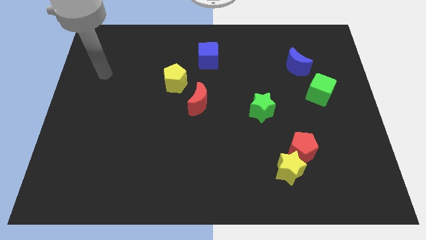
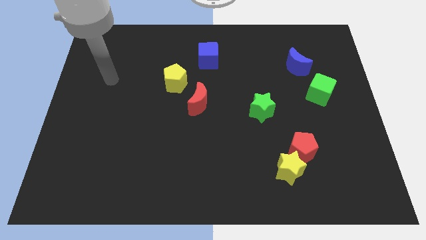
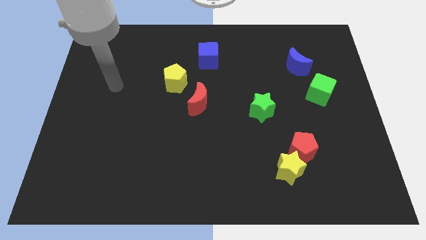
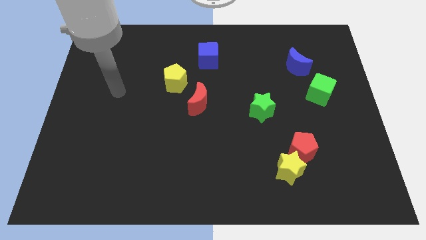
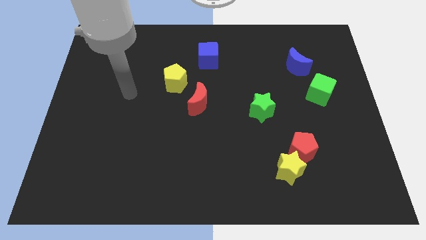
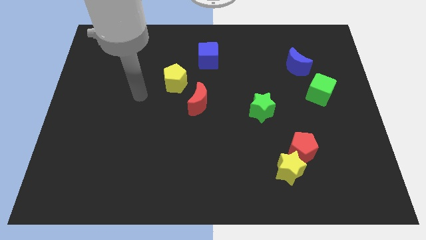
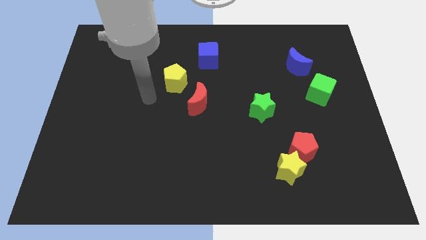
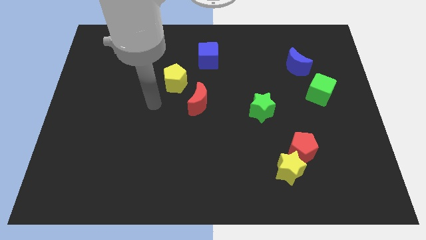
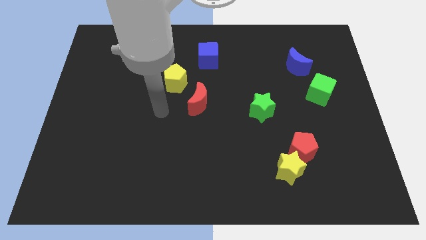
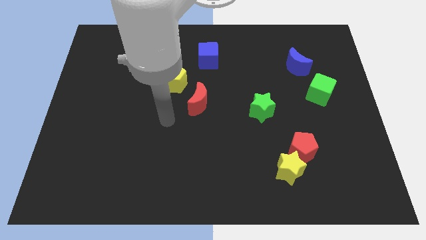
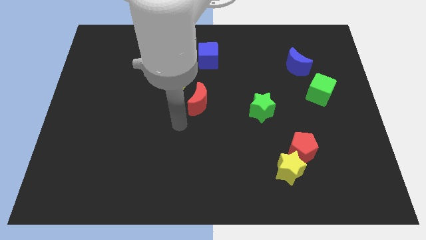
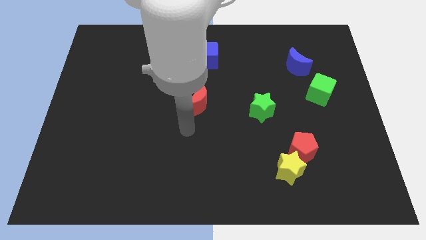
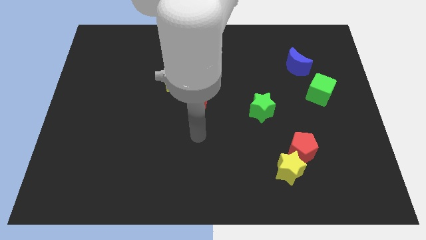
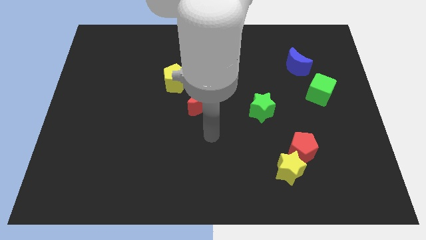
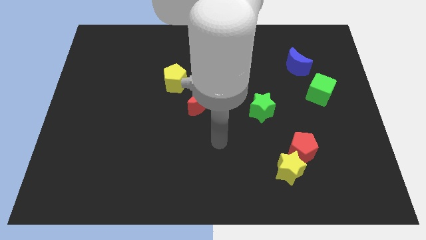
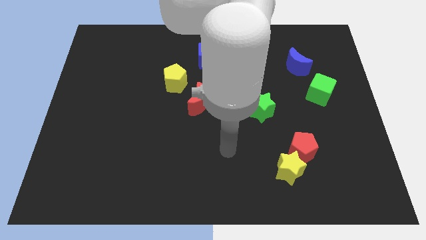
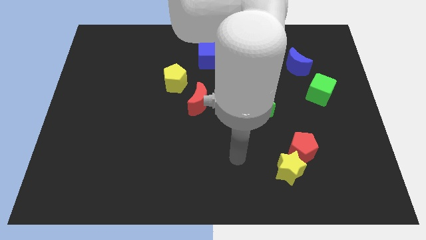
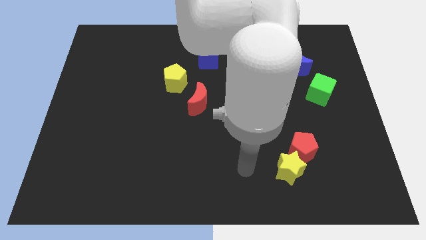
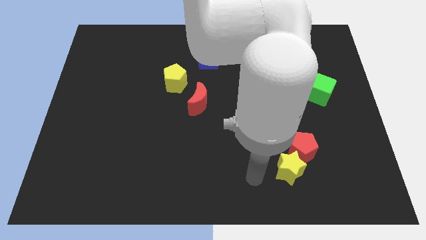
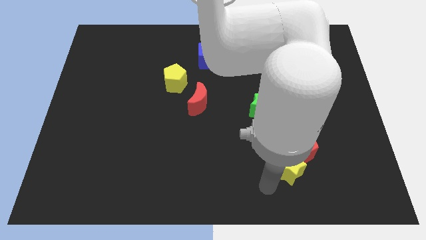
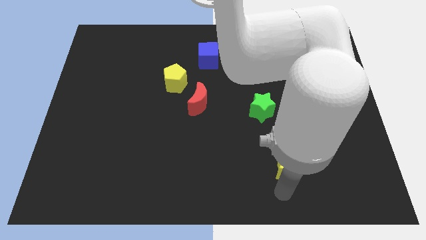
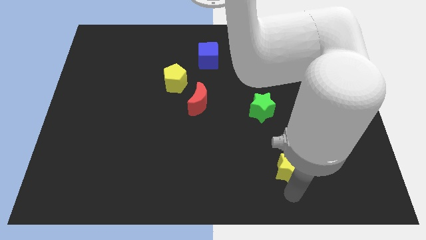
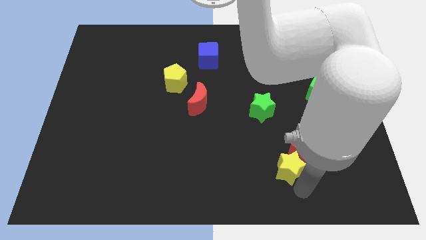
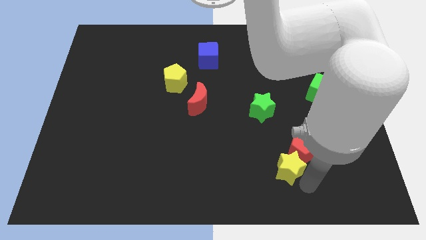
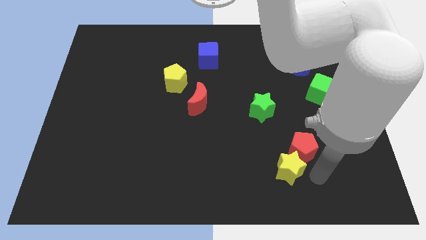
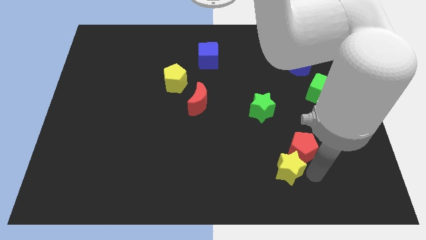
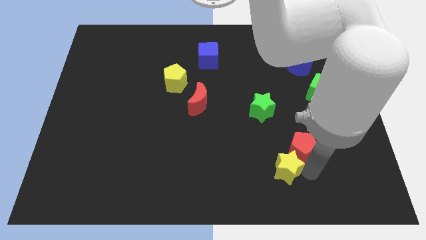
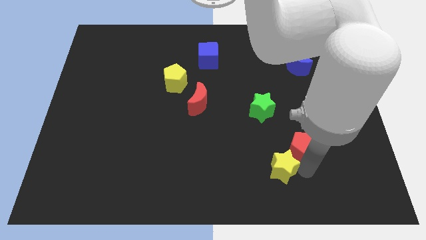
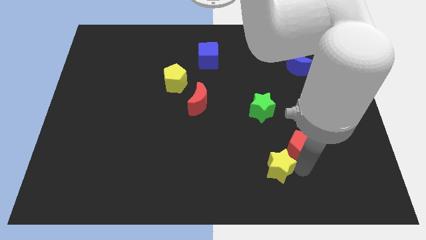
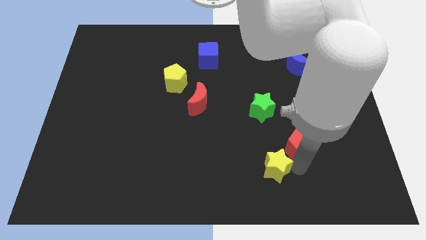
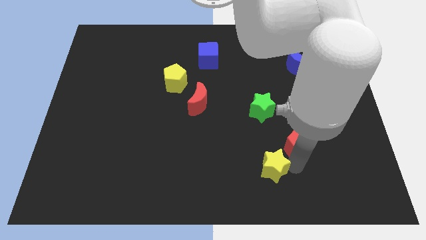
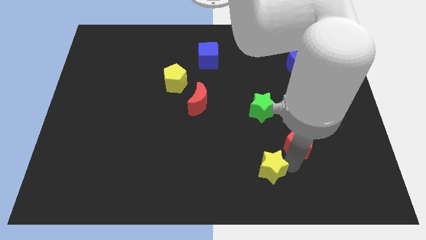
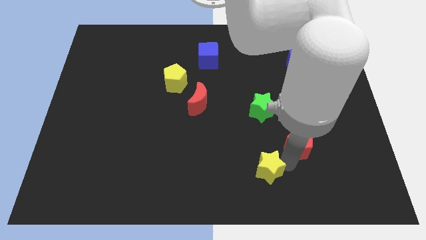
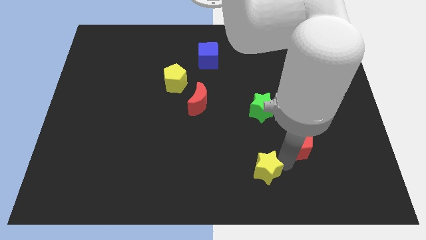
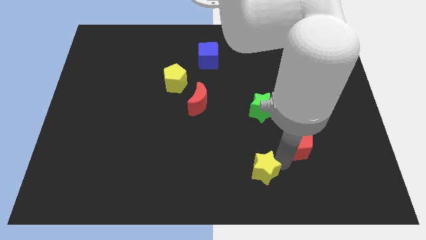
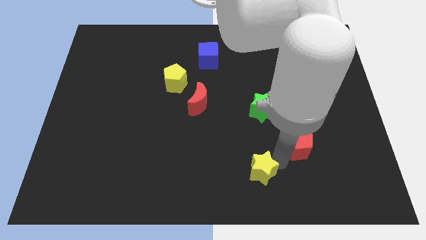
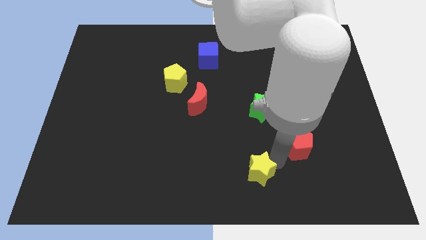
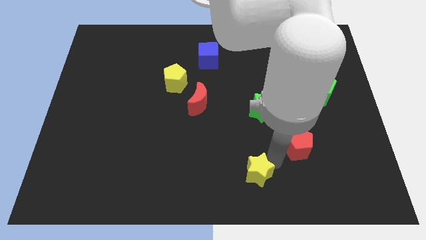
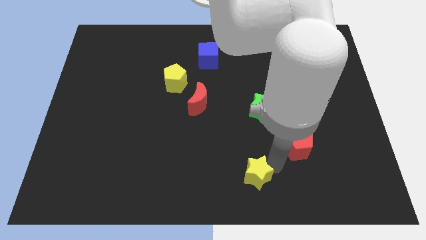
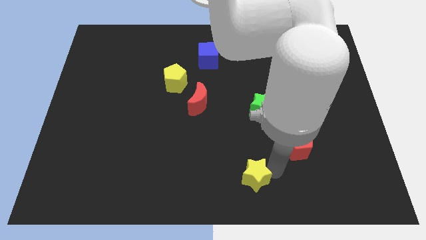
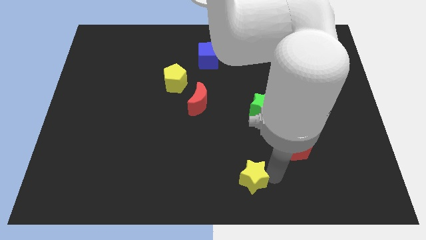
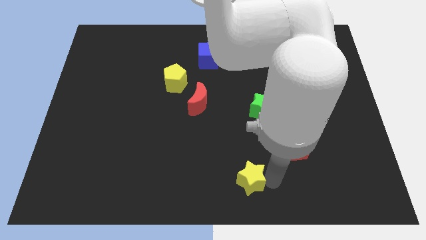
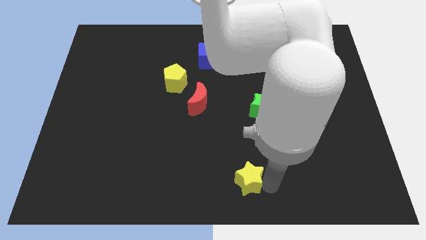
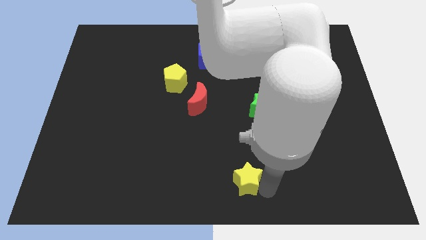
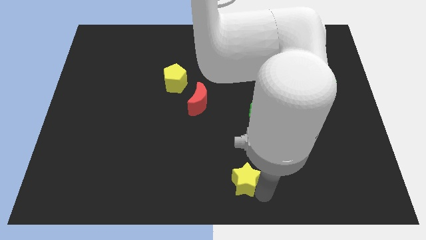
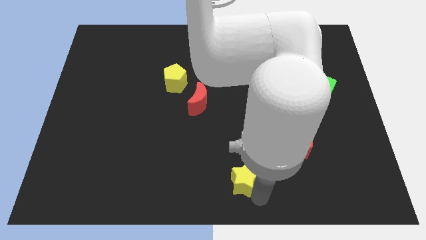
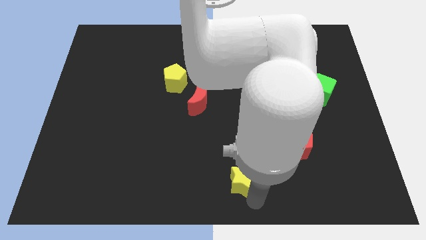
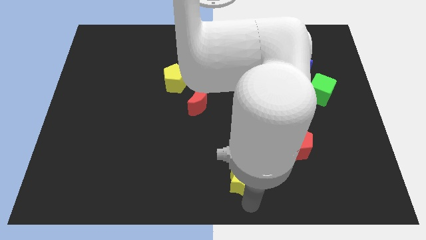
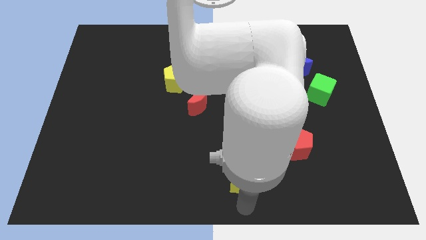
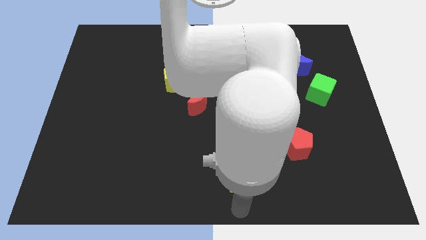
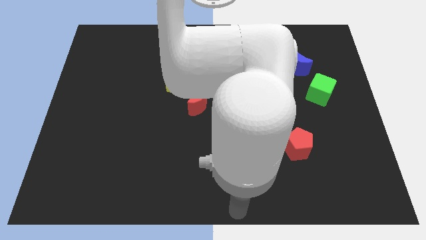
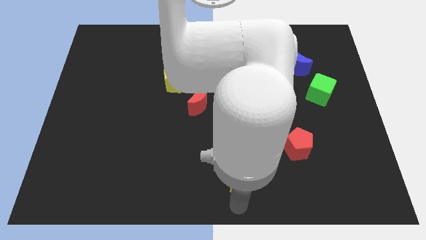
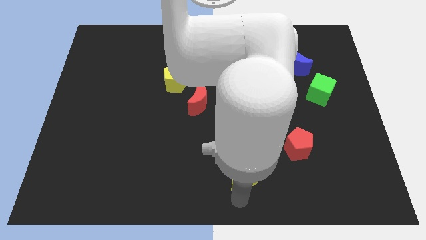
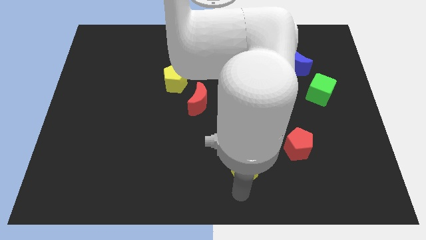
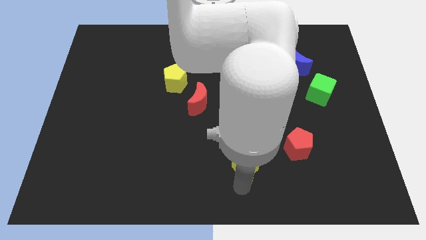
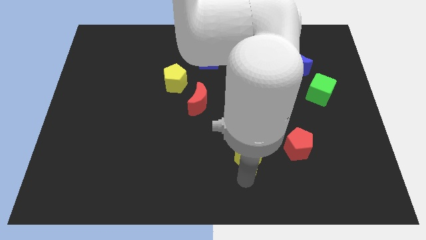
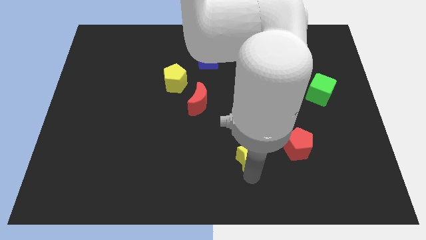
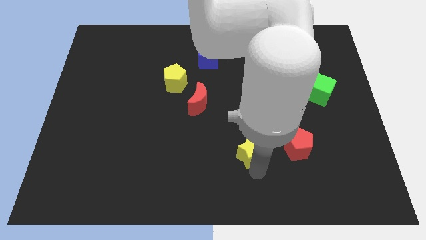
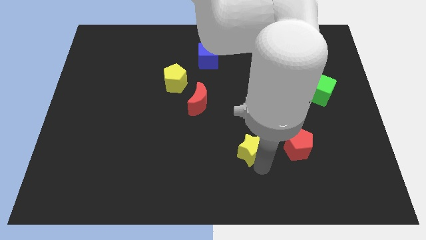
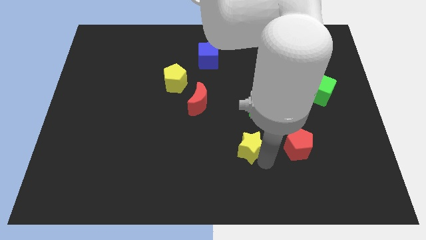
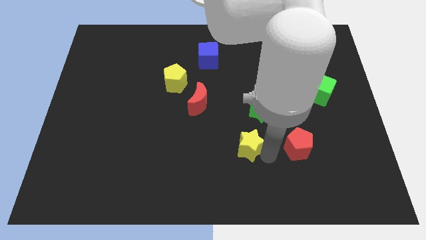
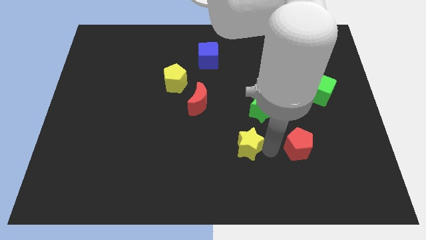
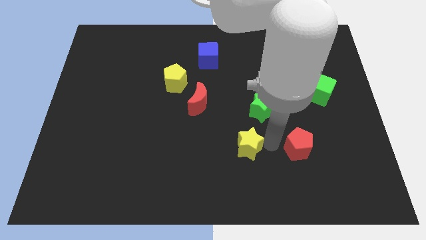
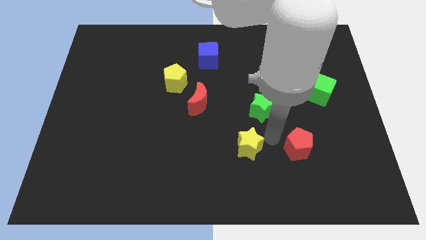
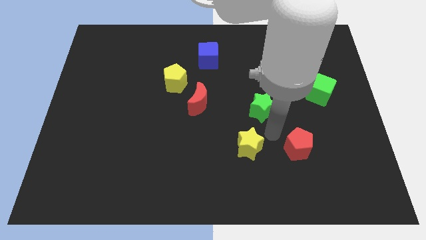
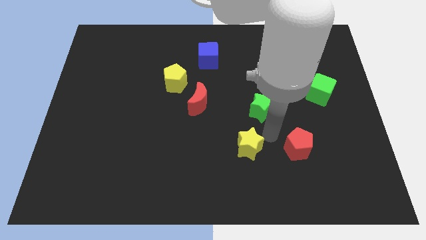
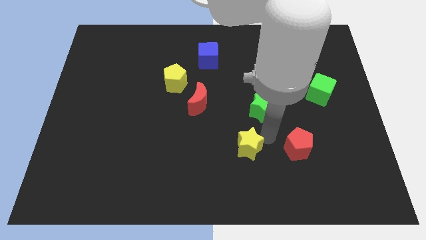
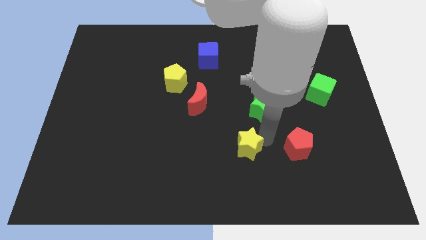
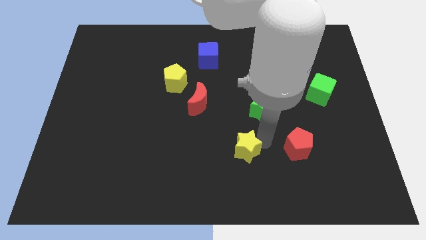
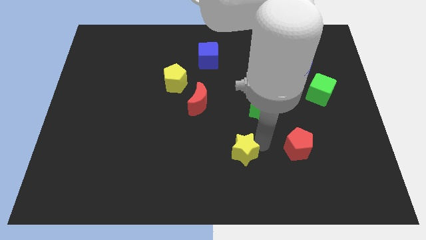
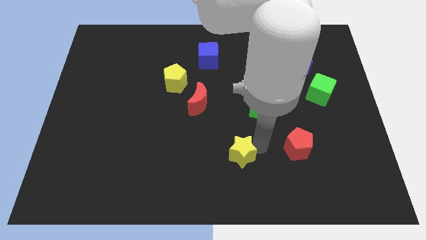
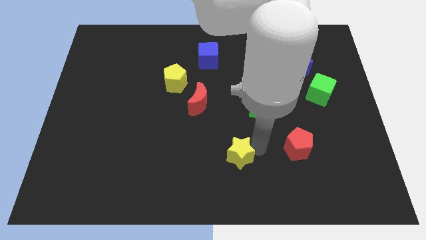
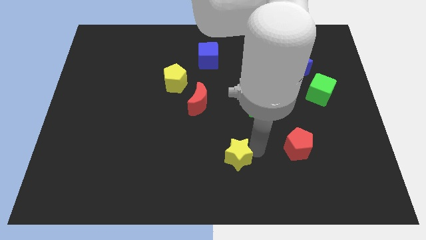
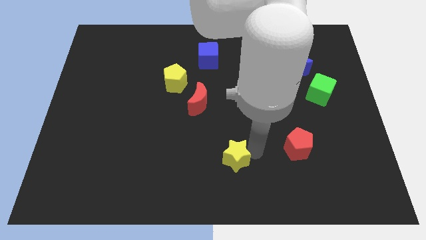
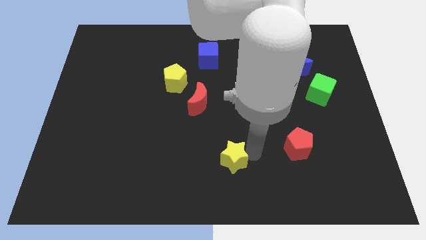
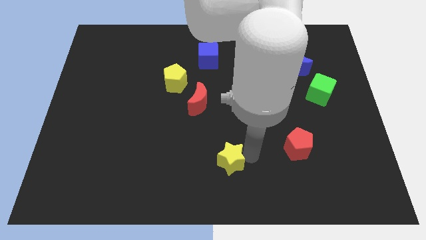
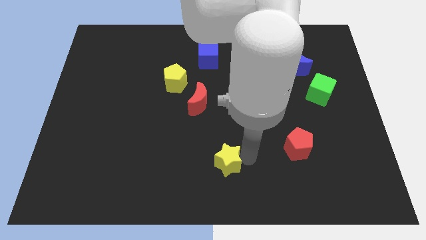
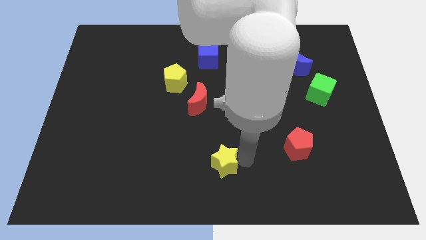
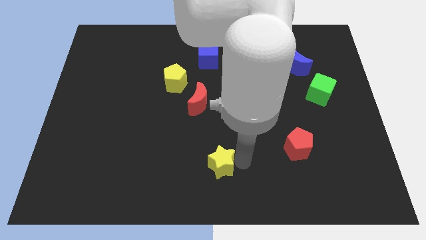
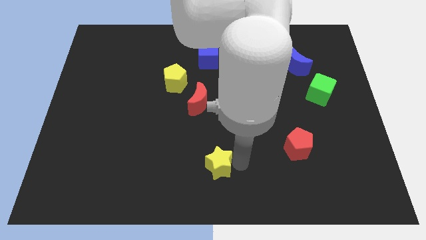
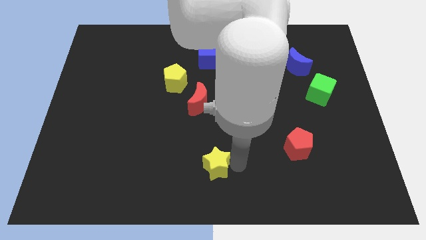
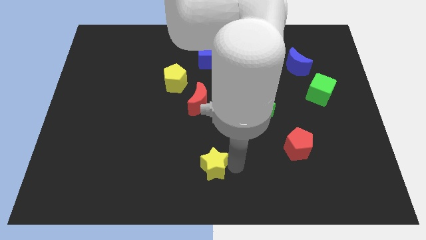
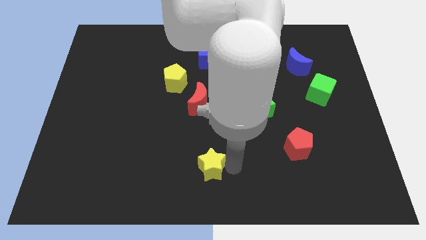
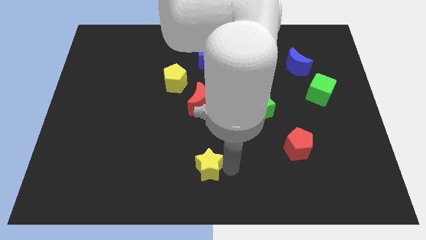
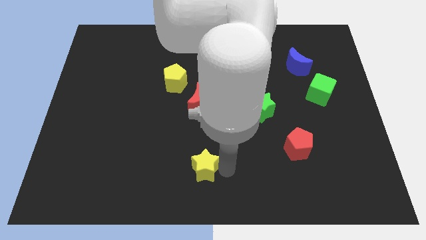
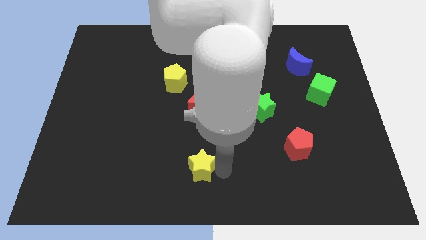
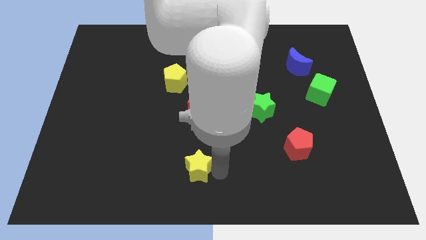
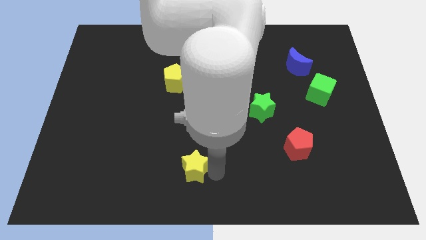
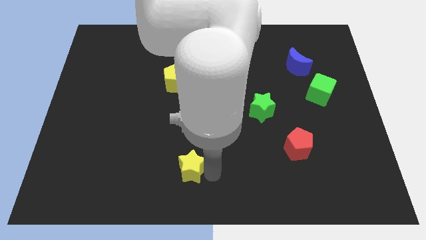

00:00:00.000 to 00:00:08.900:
move the yellow star to the left
